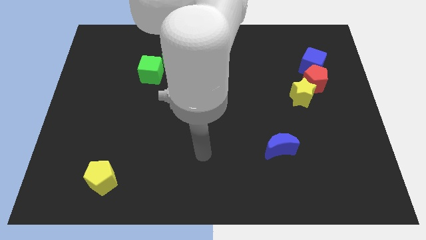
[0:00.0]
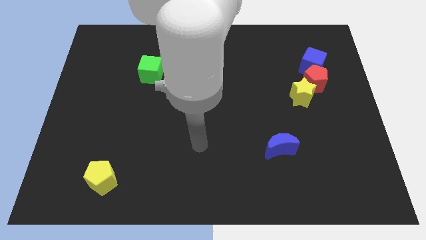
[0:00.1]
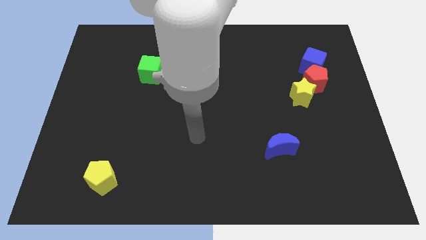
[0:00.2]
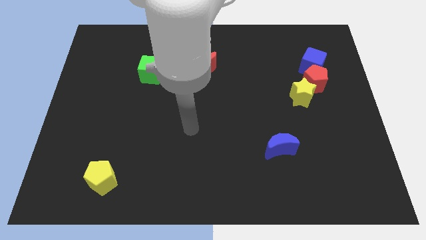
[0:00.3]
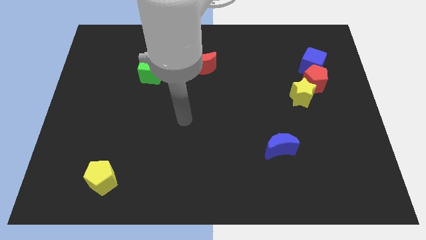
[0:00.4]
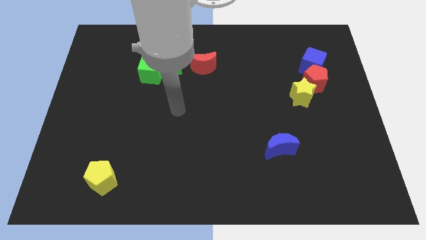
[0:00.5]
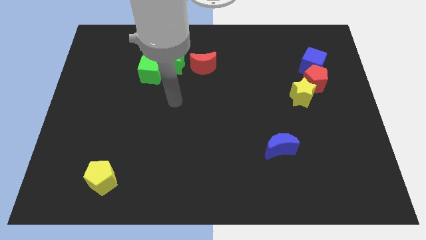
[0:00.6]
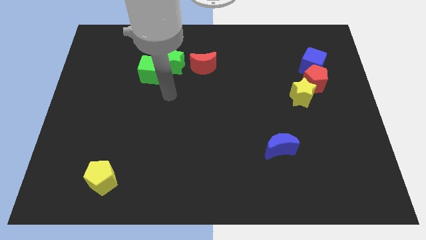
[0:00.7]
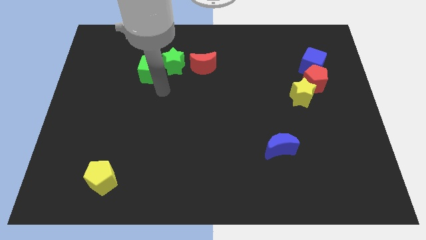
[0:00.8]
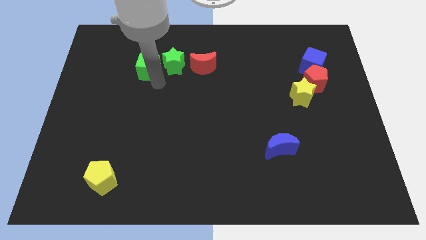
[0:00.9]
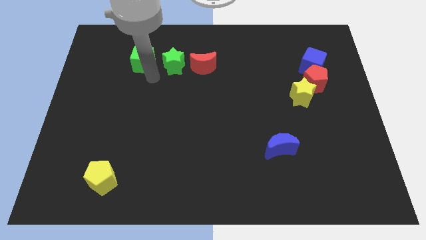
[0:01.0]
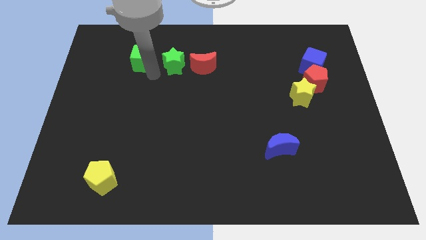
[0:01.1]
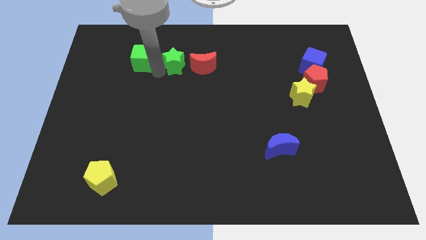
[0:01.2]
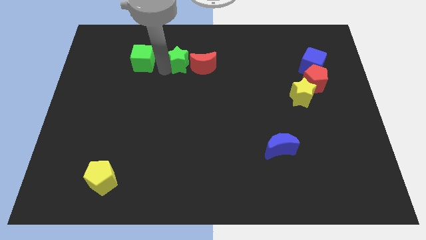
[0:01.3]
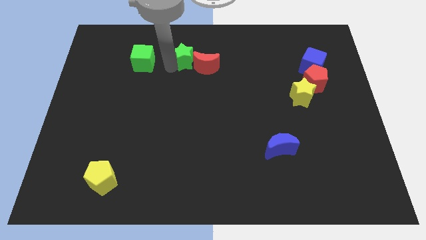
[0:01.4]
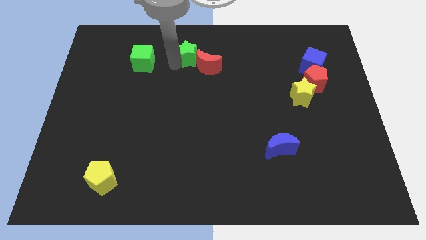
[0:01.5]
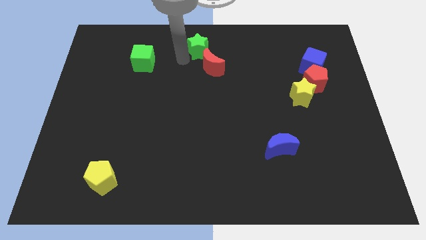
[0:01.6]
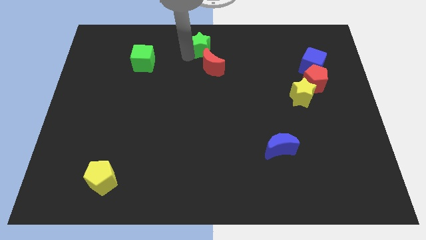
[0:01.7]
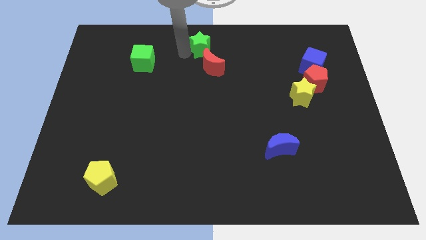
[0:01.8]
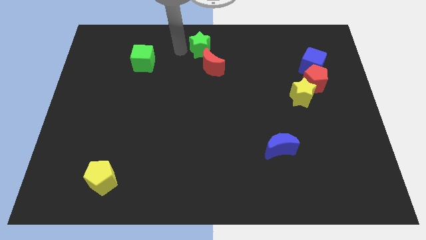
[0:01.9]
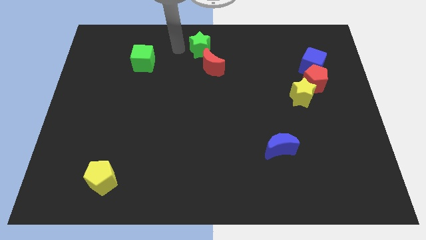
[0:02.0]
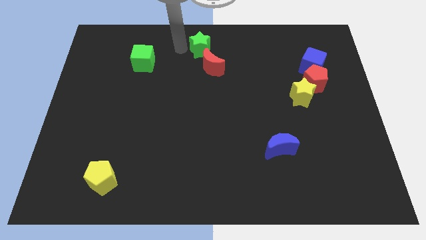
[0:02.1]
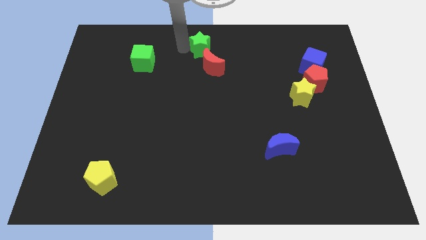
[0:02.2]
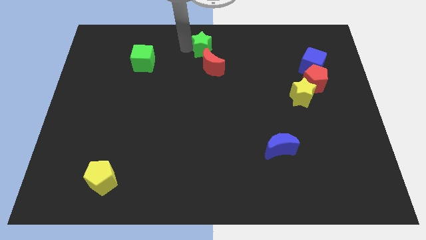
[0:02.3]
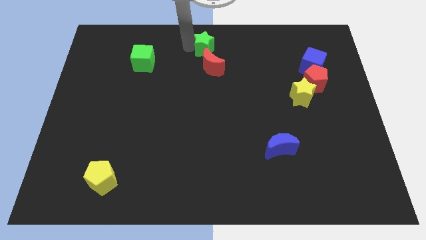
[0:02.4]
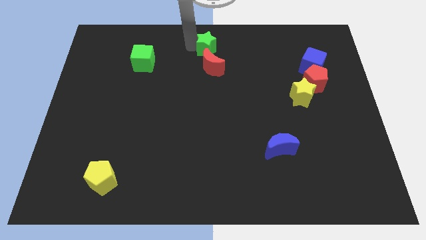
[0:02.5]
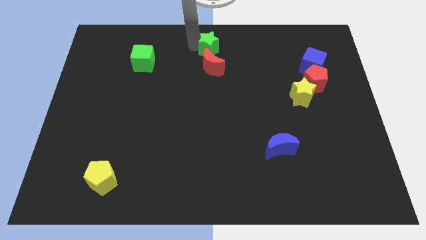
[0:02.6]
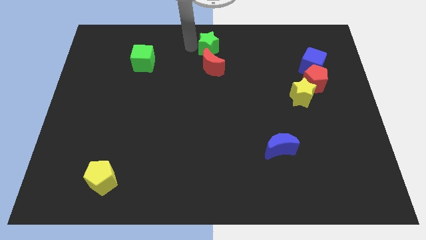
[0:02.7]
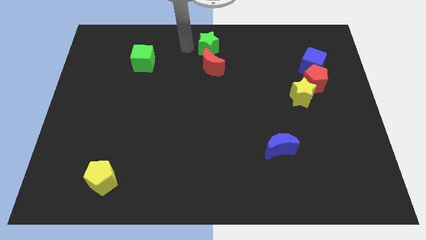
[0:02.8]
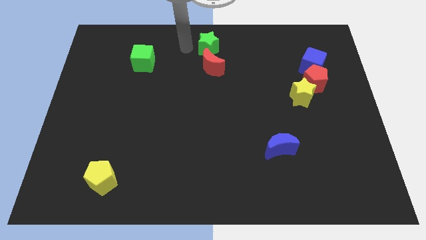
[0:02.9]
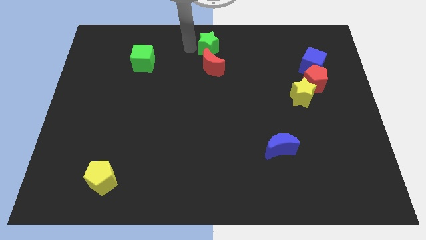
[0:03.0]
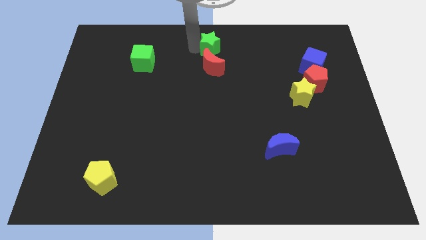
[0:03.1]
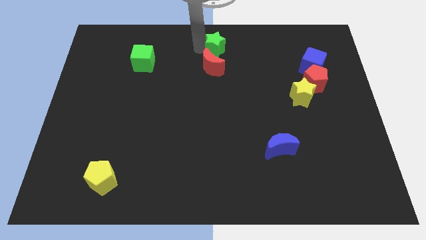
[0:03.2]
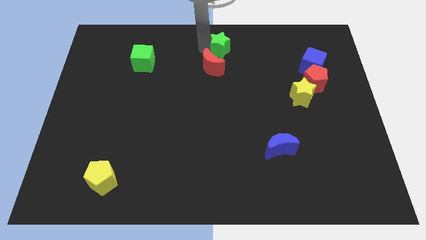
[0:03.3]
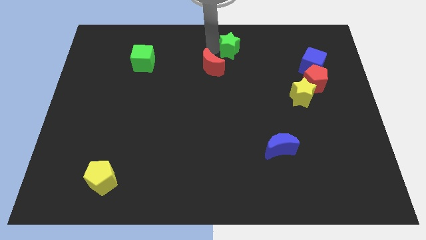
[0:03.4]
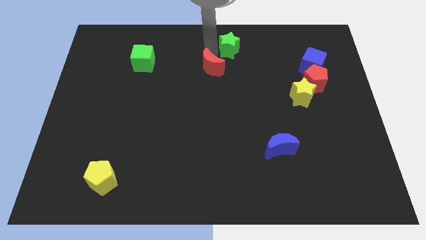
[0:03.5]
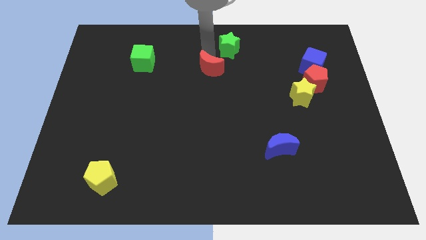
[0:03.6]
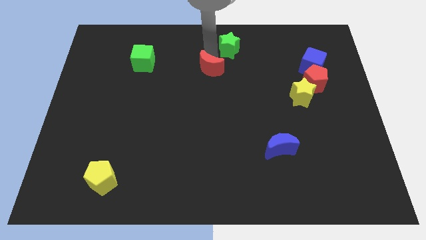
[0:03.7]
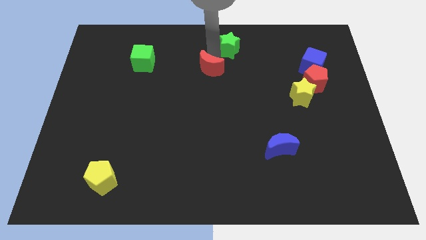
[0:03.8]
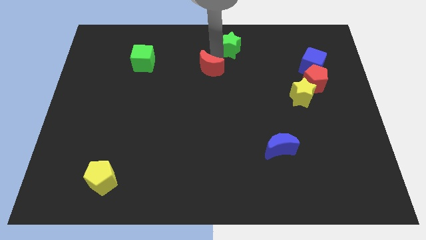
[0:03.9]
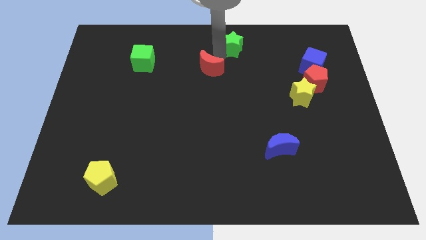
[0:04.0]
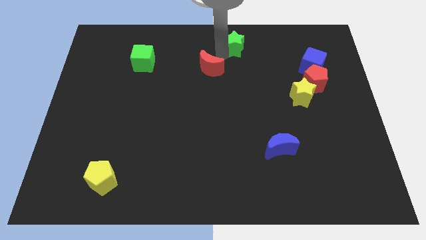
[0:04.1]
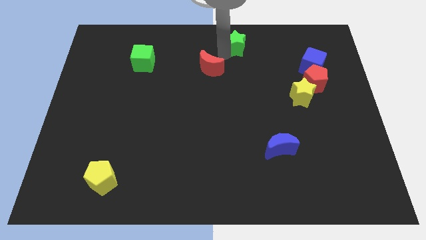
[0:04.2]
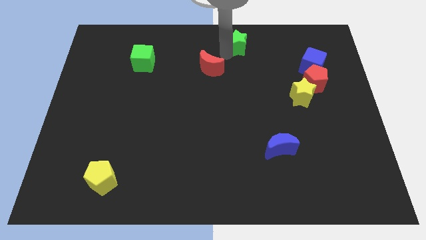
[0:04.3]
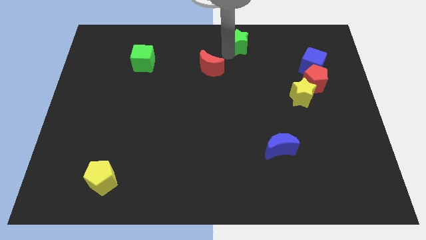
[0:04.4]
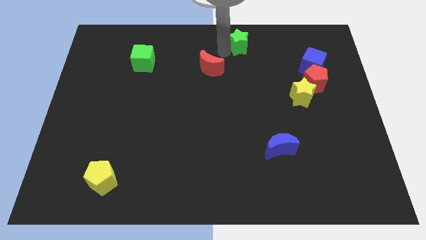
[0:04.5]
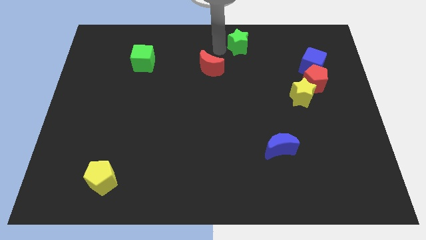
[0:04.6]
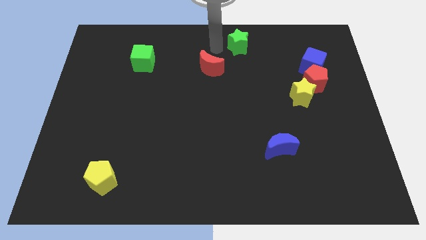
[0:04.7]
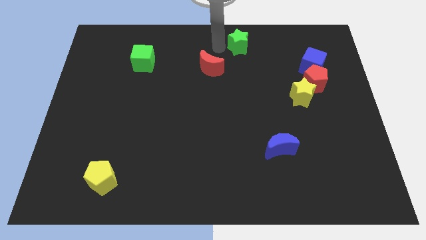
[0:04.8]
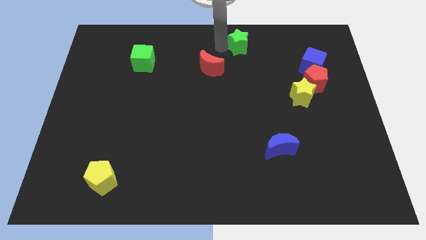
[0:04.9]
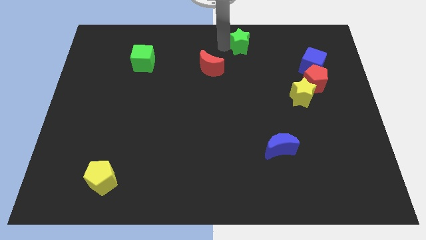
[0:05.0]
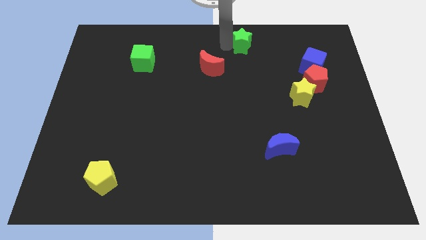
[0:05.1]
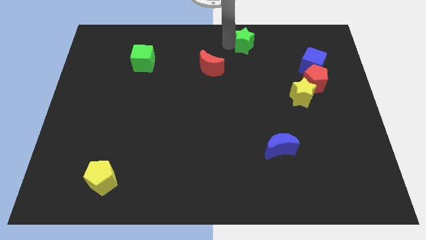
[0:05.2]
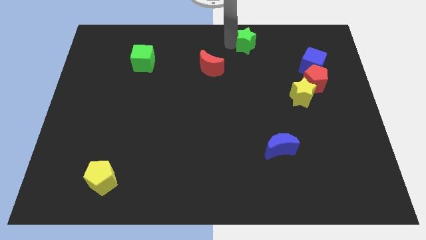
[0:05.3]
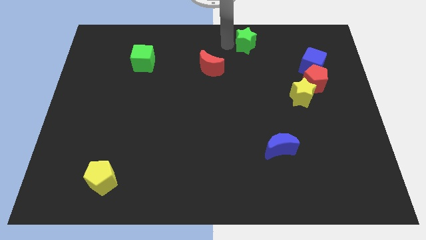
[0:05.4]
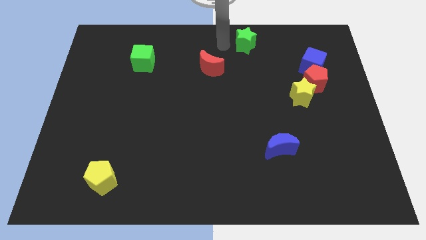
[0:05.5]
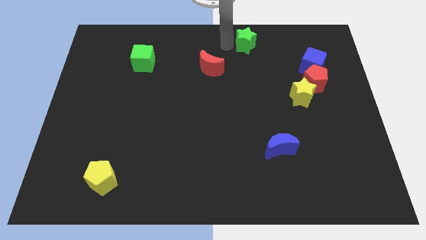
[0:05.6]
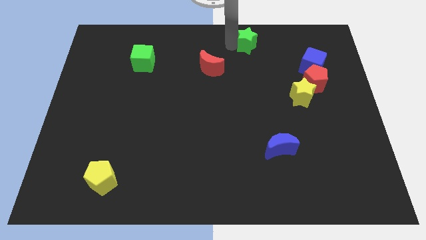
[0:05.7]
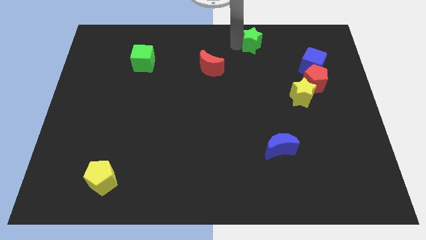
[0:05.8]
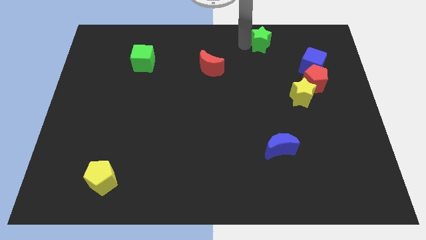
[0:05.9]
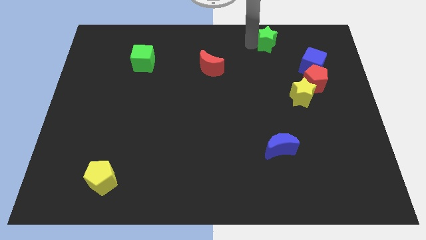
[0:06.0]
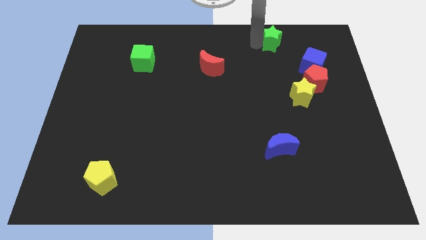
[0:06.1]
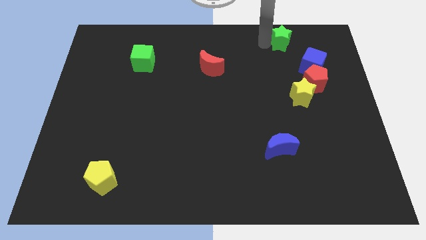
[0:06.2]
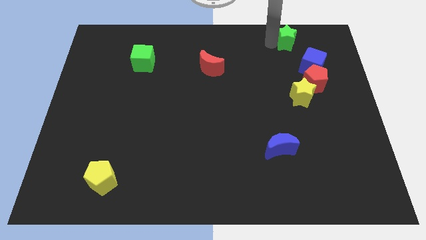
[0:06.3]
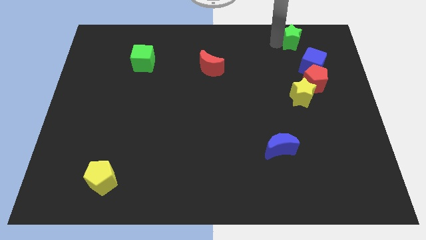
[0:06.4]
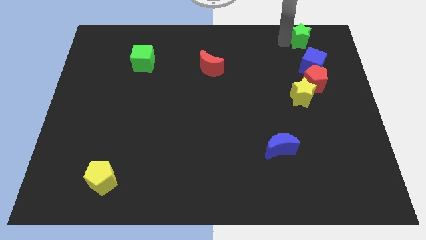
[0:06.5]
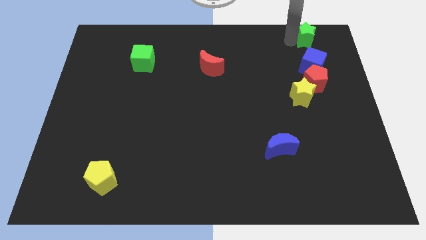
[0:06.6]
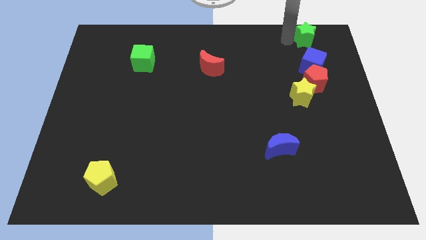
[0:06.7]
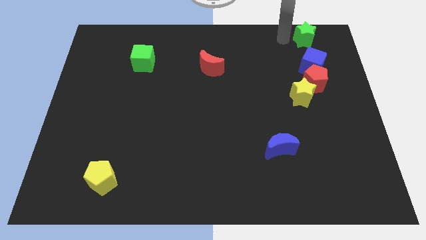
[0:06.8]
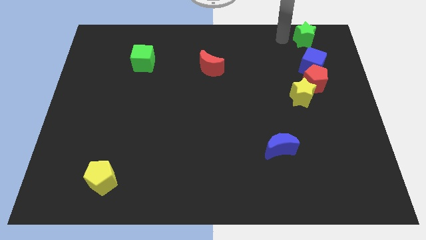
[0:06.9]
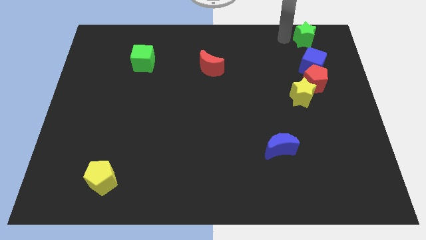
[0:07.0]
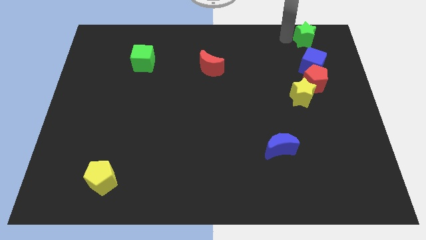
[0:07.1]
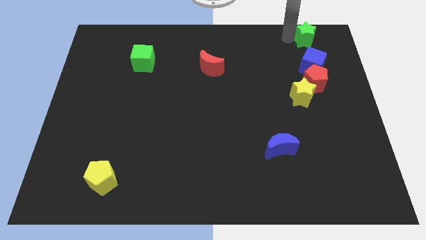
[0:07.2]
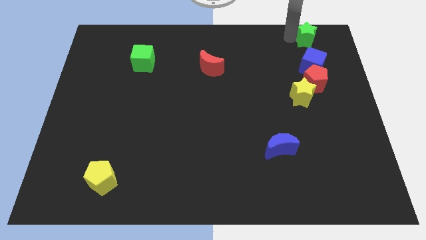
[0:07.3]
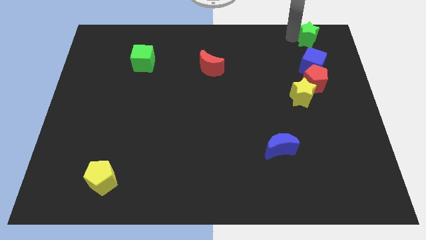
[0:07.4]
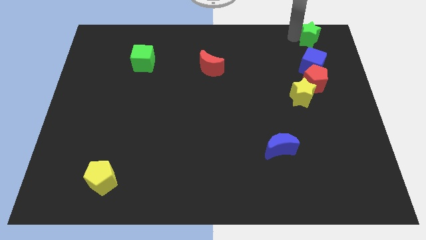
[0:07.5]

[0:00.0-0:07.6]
slide the green star to the top right
